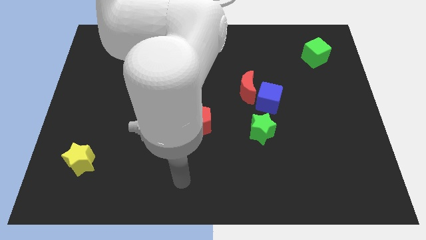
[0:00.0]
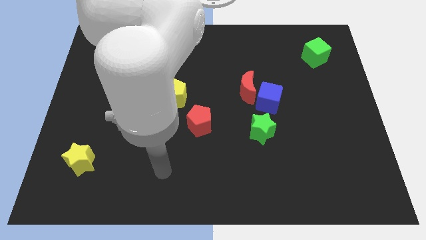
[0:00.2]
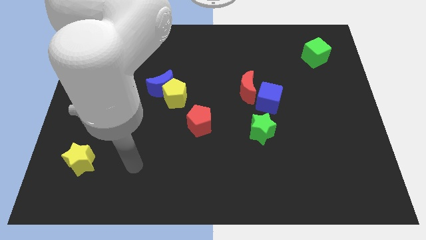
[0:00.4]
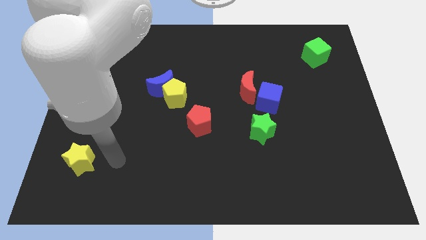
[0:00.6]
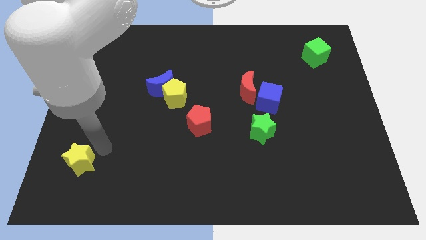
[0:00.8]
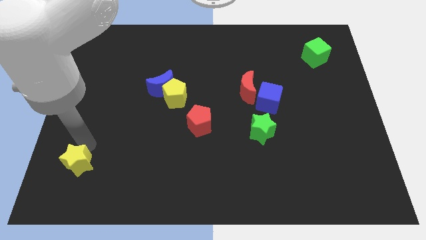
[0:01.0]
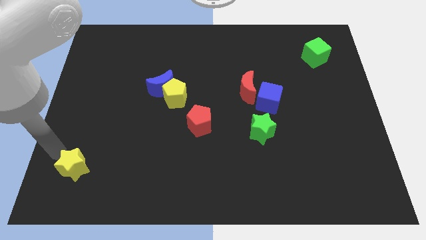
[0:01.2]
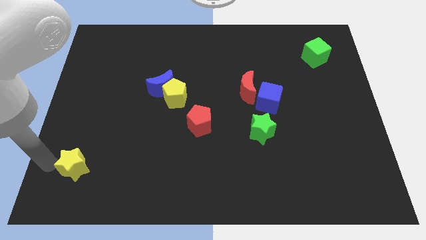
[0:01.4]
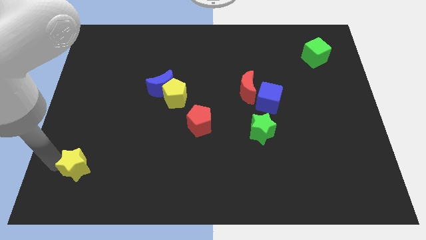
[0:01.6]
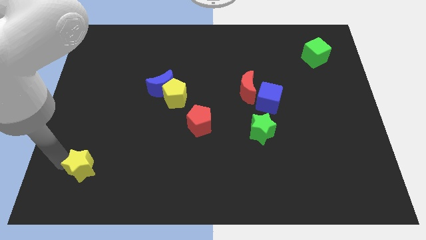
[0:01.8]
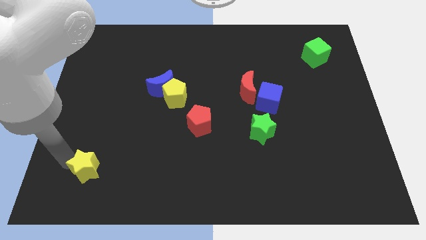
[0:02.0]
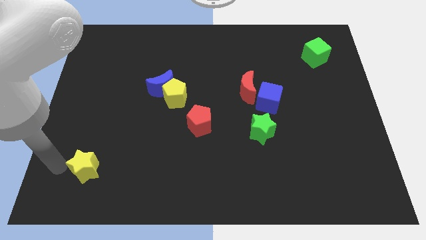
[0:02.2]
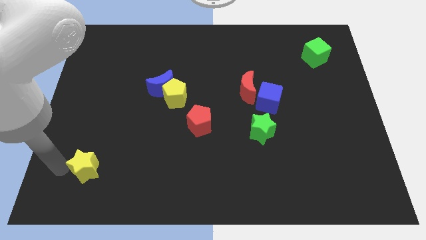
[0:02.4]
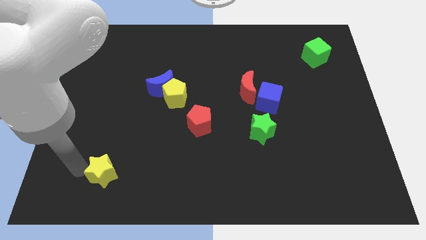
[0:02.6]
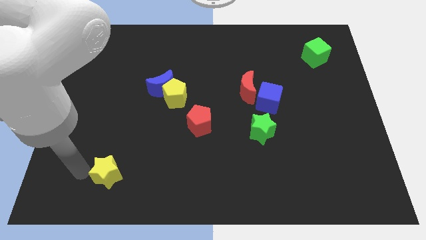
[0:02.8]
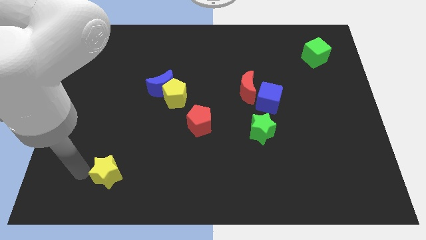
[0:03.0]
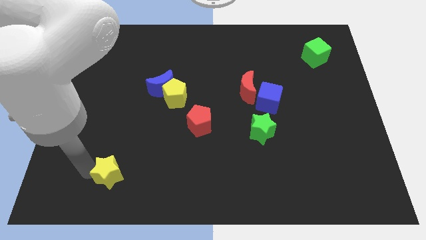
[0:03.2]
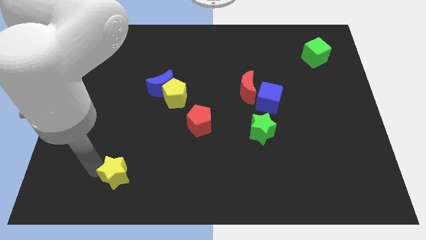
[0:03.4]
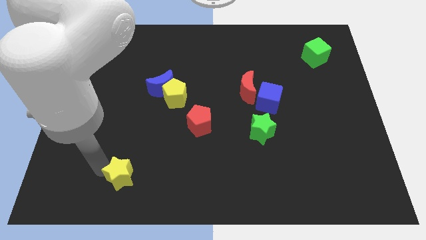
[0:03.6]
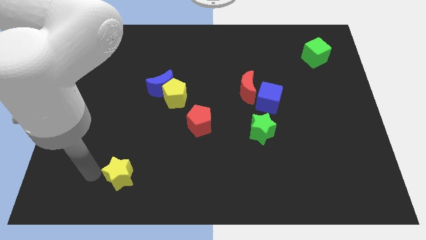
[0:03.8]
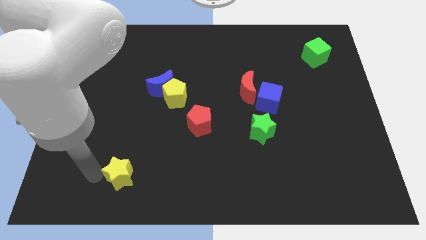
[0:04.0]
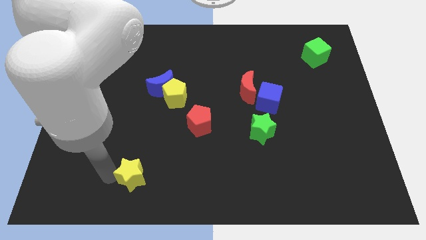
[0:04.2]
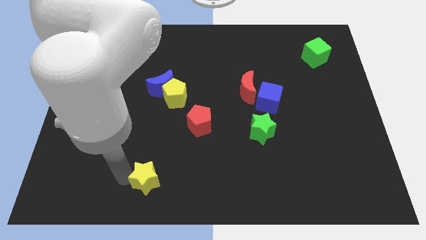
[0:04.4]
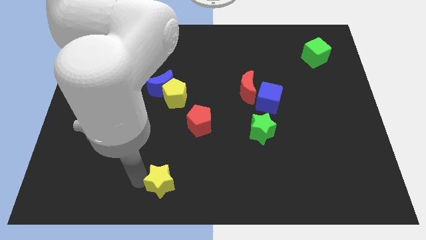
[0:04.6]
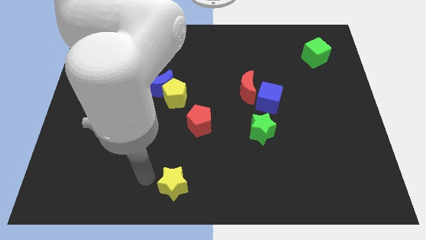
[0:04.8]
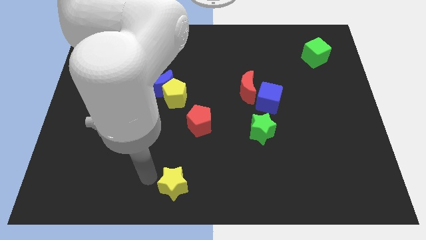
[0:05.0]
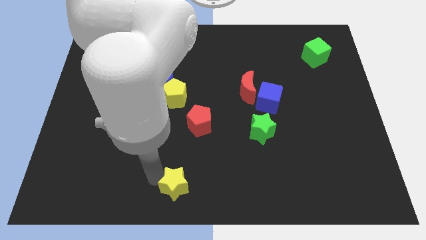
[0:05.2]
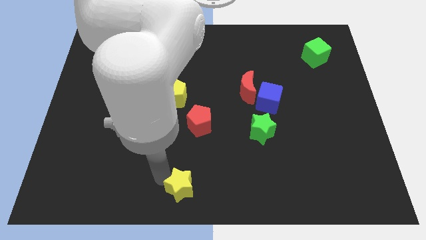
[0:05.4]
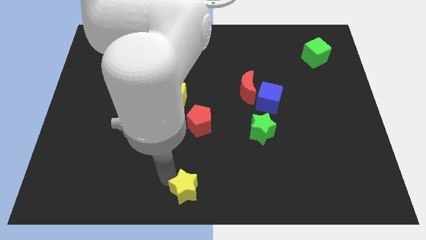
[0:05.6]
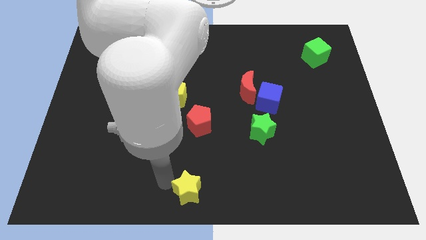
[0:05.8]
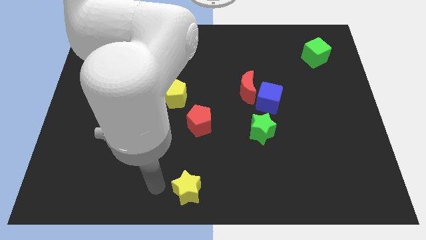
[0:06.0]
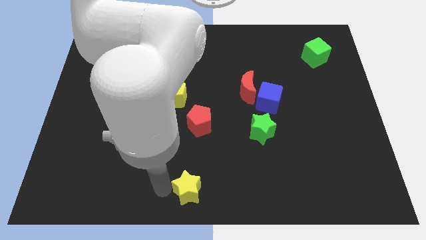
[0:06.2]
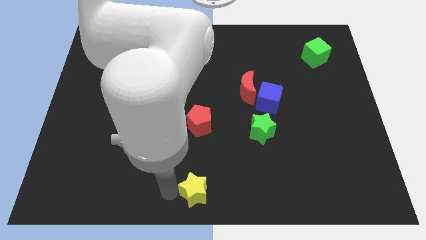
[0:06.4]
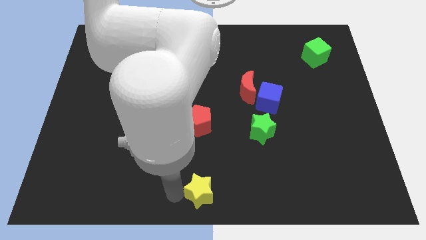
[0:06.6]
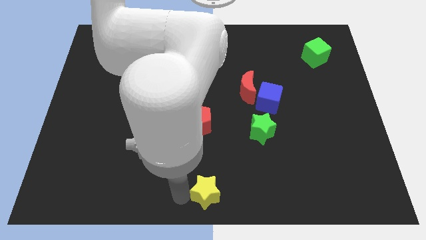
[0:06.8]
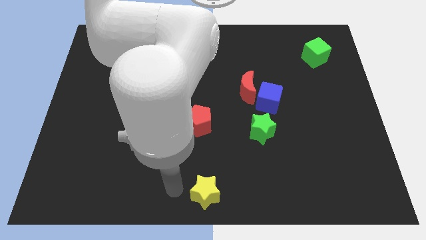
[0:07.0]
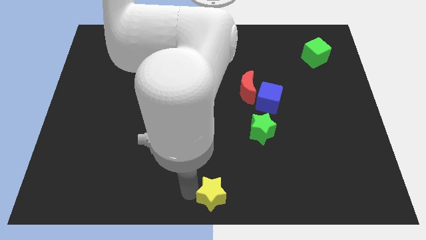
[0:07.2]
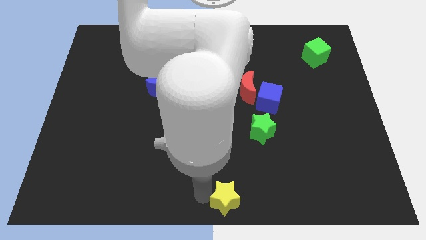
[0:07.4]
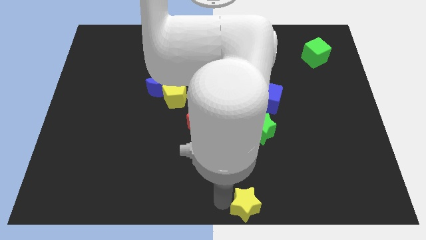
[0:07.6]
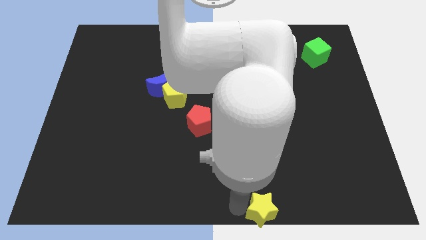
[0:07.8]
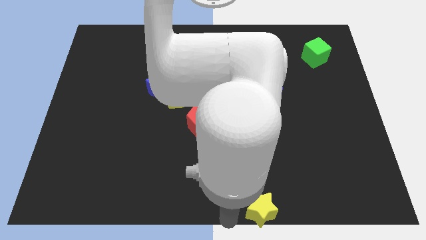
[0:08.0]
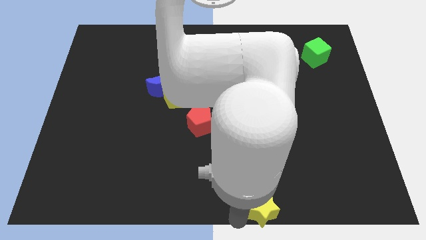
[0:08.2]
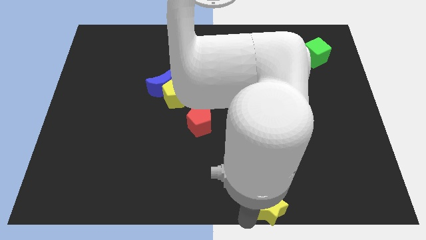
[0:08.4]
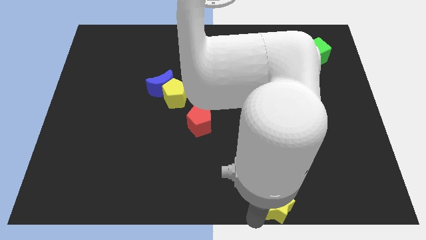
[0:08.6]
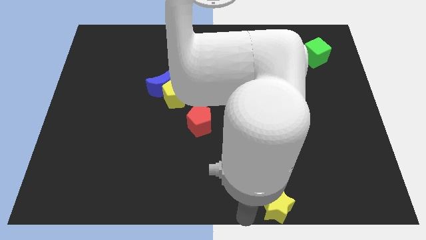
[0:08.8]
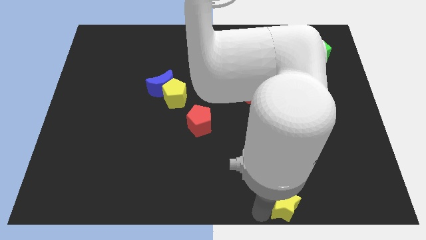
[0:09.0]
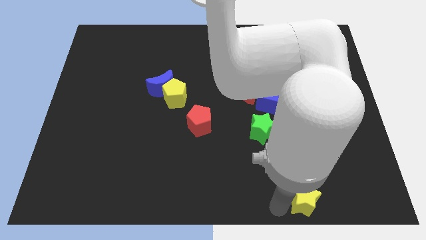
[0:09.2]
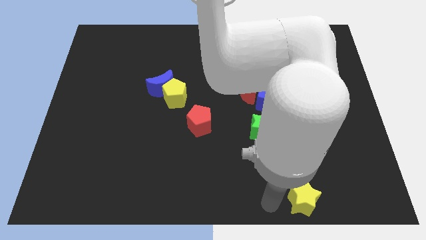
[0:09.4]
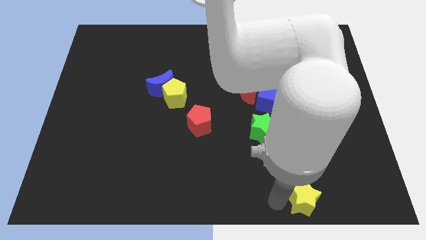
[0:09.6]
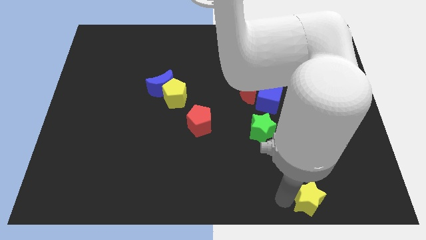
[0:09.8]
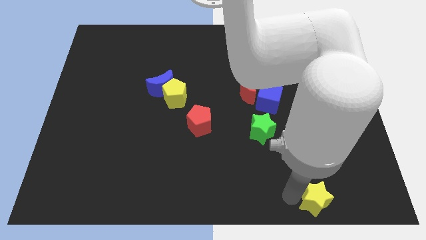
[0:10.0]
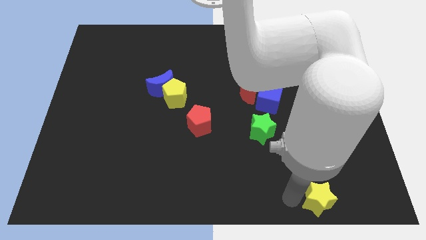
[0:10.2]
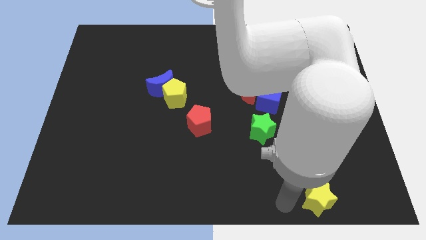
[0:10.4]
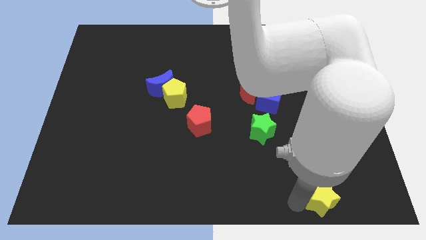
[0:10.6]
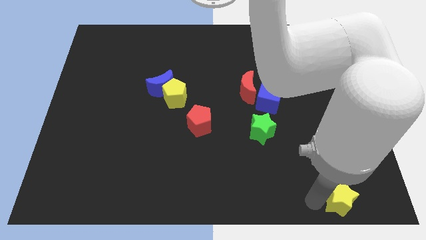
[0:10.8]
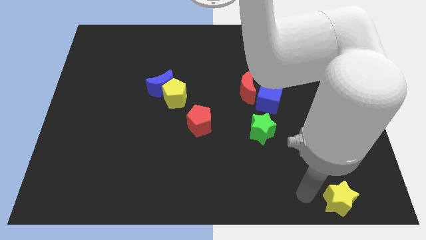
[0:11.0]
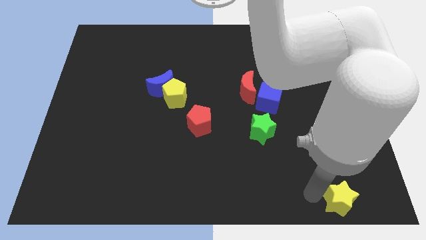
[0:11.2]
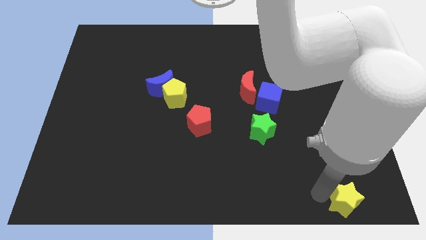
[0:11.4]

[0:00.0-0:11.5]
push the yellow star to the bottom right
